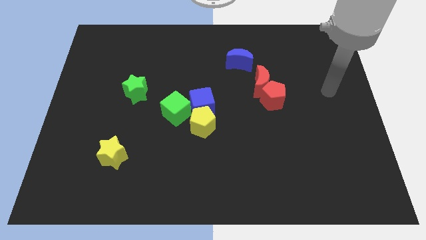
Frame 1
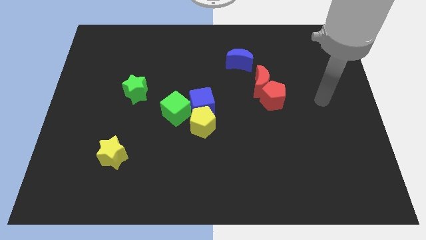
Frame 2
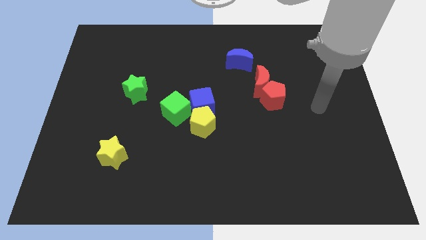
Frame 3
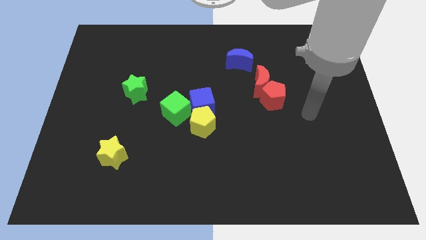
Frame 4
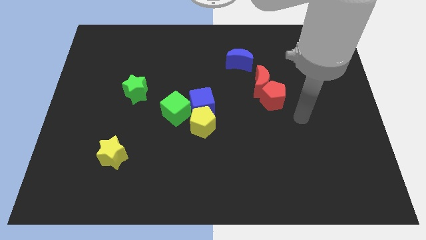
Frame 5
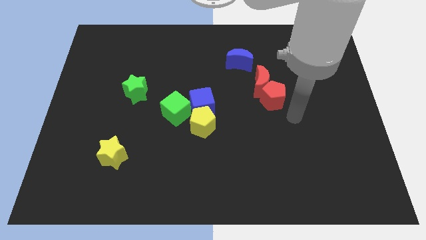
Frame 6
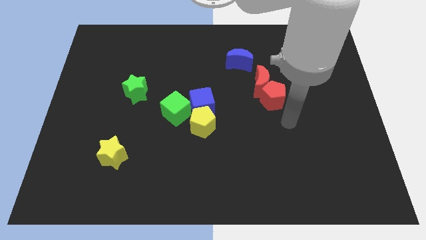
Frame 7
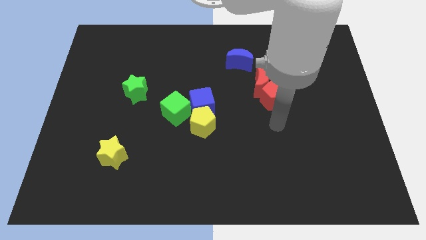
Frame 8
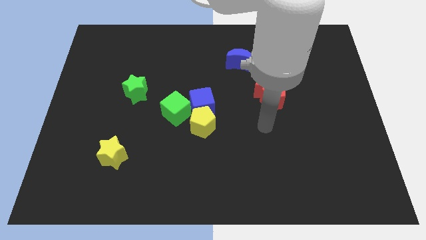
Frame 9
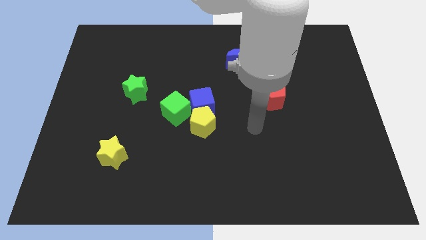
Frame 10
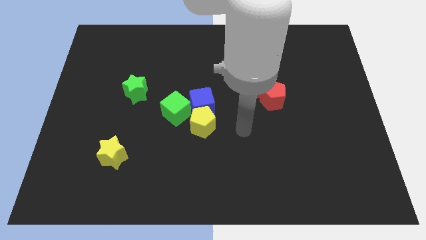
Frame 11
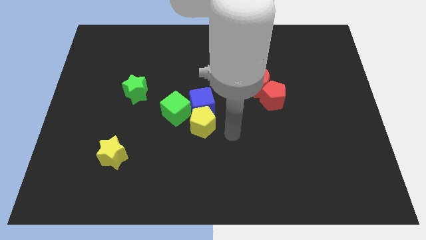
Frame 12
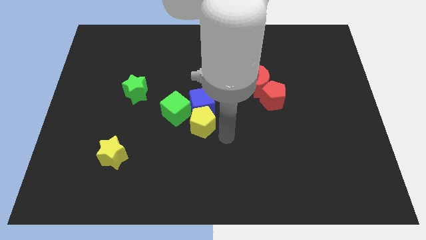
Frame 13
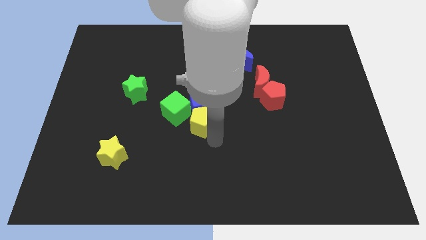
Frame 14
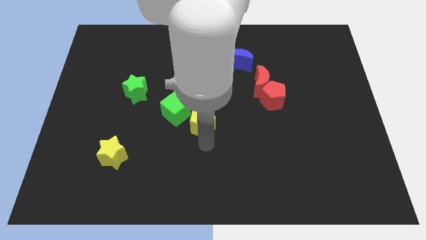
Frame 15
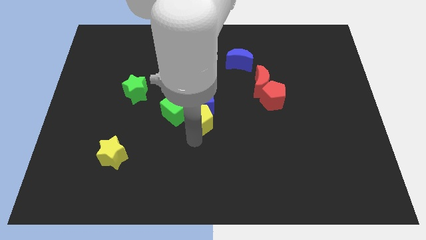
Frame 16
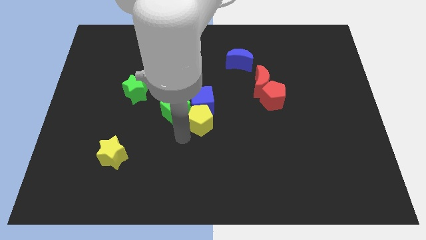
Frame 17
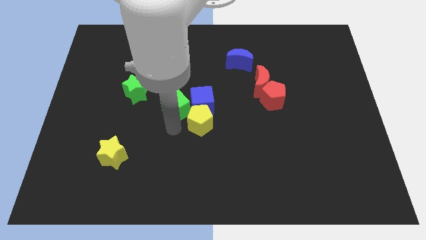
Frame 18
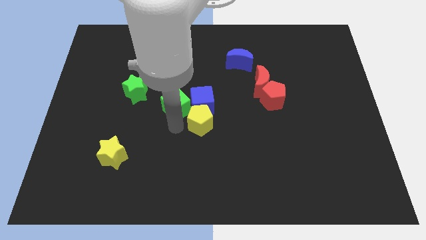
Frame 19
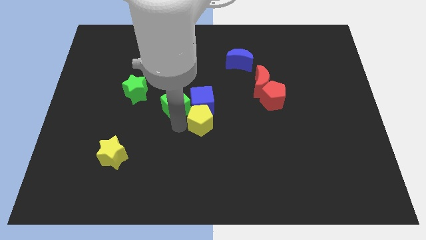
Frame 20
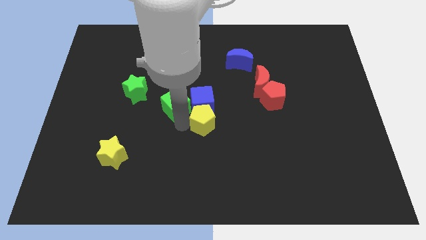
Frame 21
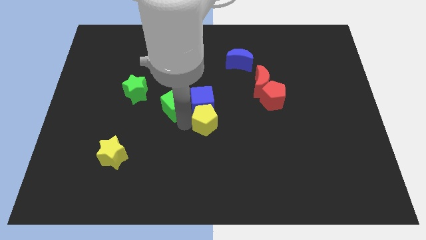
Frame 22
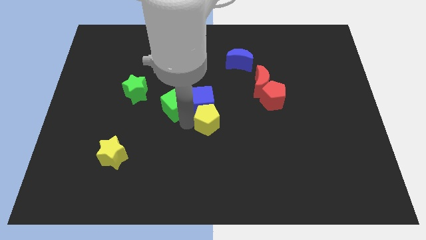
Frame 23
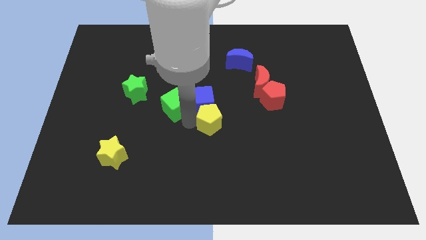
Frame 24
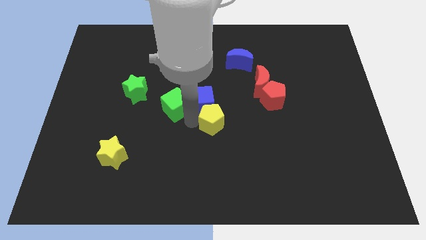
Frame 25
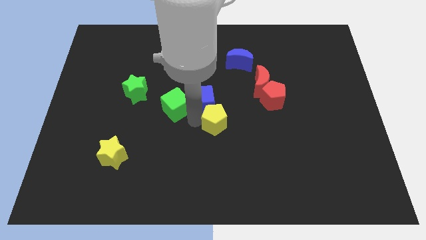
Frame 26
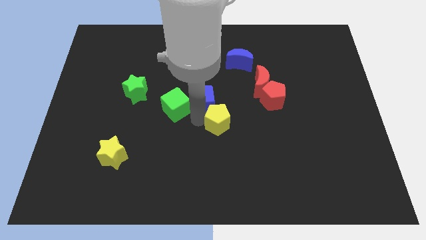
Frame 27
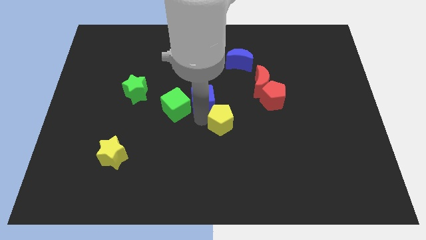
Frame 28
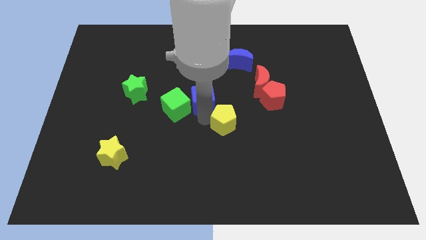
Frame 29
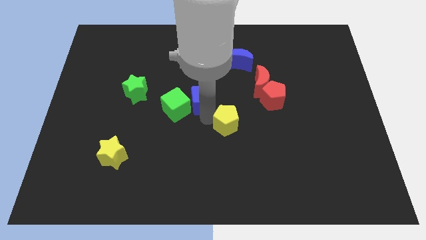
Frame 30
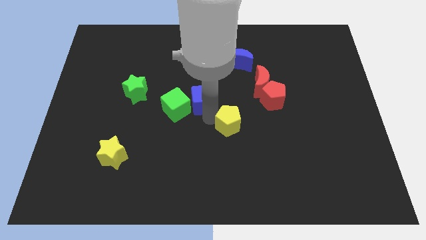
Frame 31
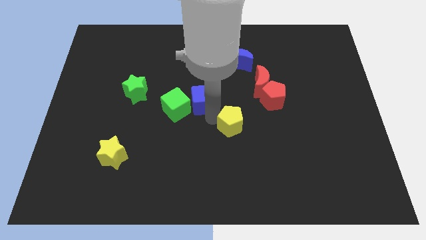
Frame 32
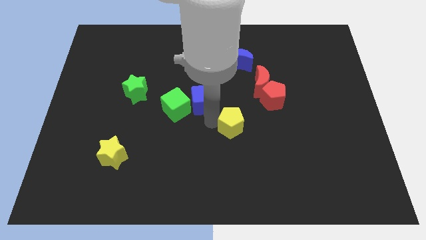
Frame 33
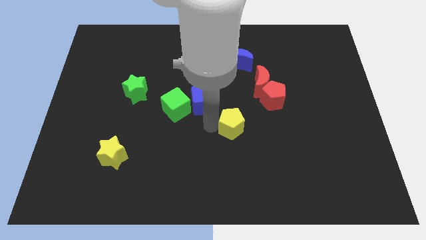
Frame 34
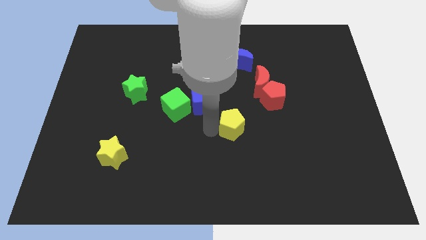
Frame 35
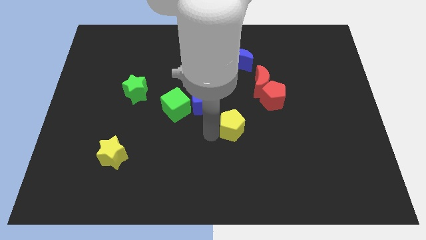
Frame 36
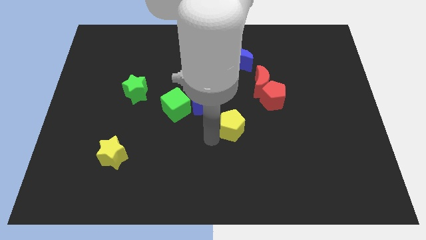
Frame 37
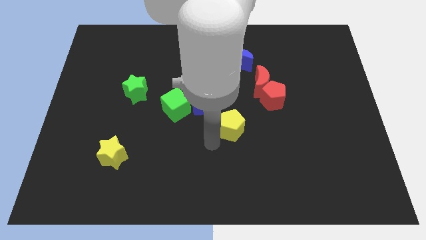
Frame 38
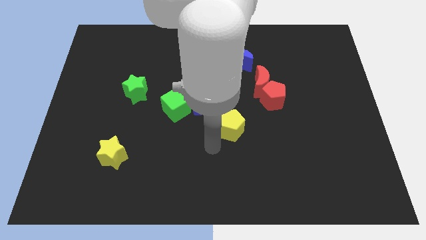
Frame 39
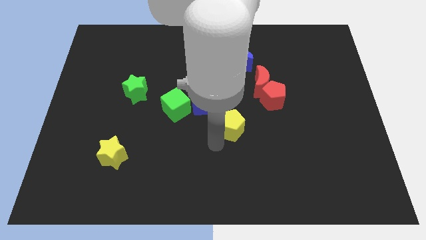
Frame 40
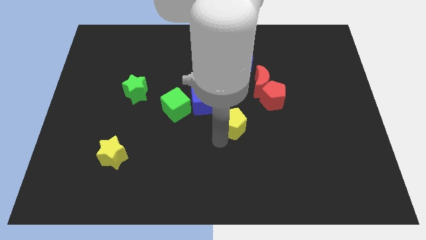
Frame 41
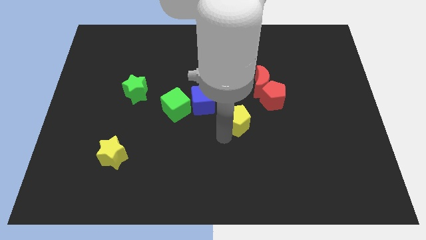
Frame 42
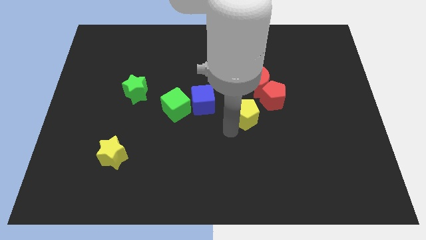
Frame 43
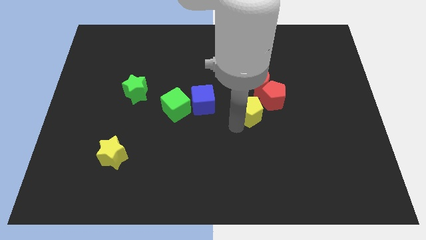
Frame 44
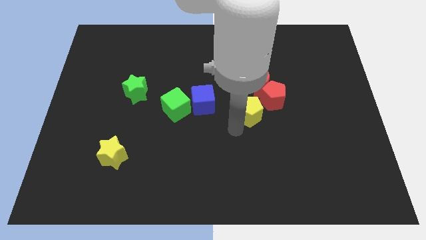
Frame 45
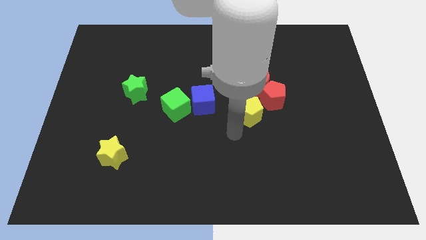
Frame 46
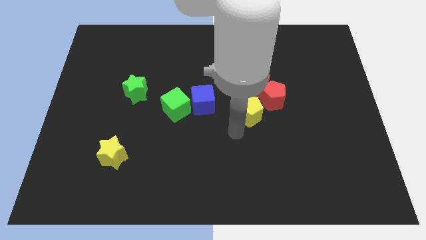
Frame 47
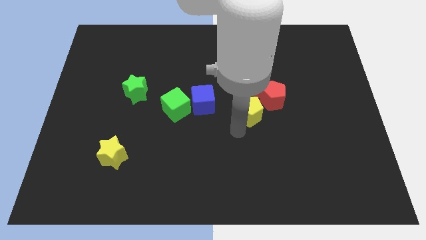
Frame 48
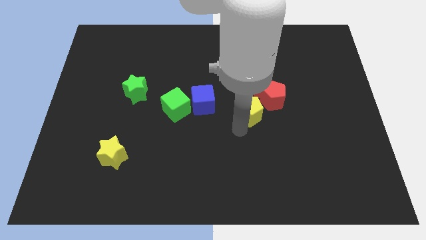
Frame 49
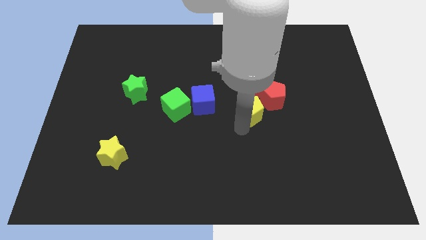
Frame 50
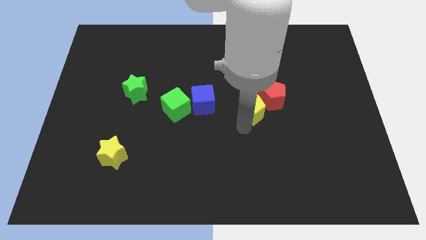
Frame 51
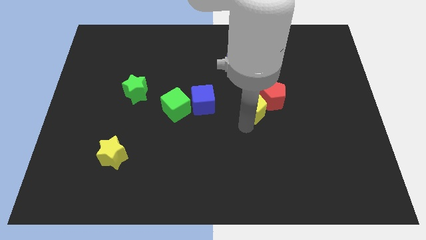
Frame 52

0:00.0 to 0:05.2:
slide the yellow pentagon to the red pentagon

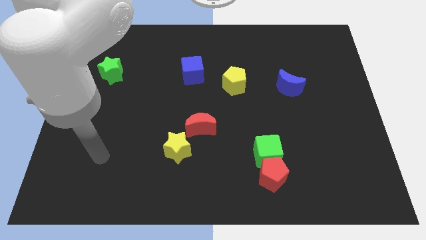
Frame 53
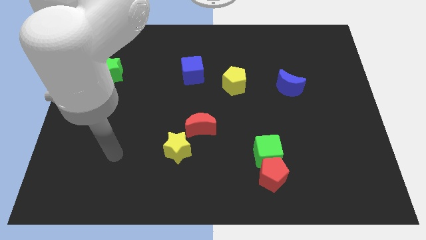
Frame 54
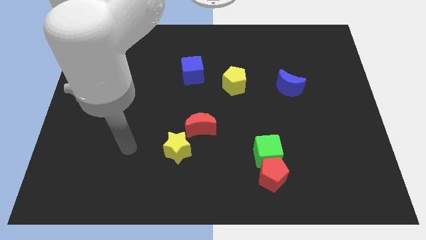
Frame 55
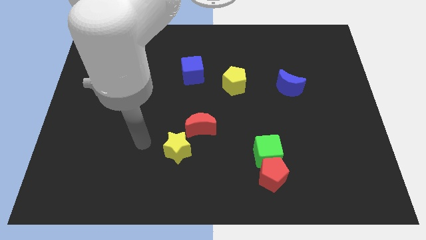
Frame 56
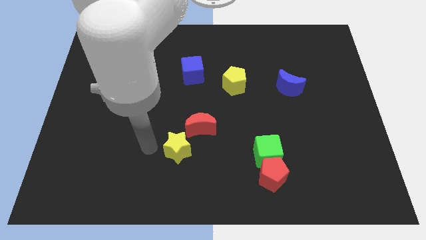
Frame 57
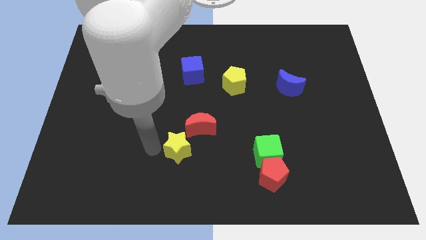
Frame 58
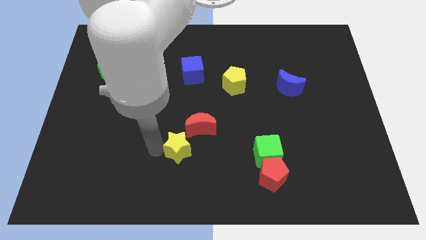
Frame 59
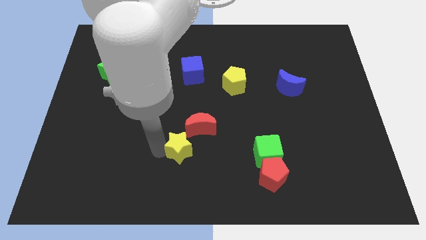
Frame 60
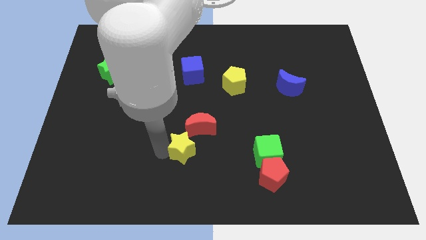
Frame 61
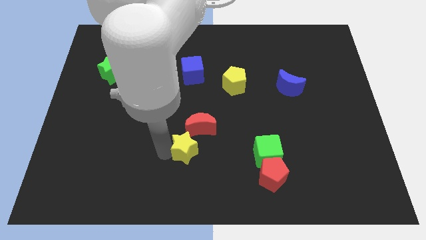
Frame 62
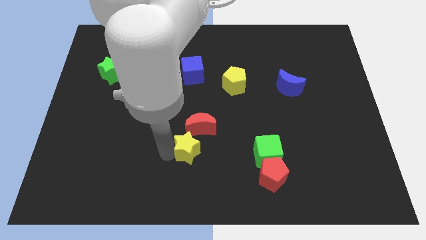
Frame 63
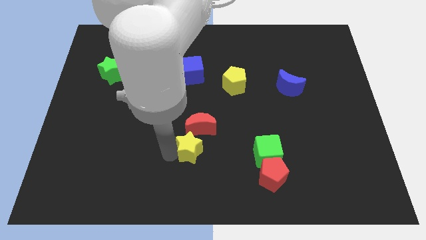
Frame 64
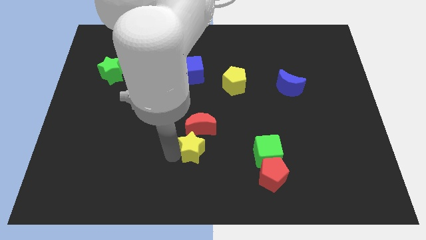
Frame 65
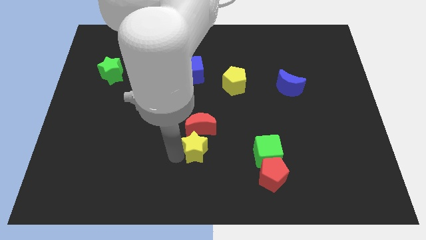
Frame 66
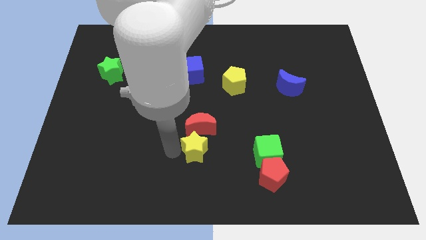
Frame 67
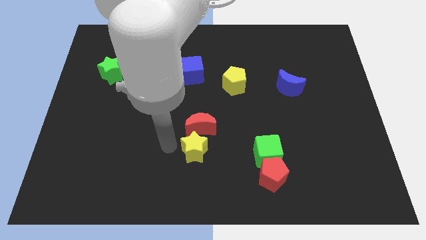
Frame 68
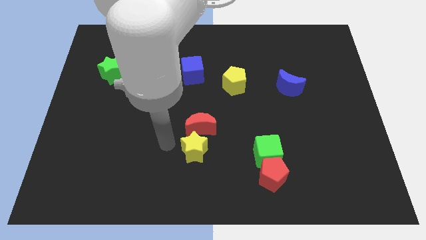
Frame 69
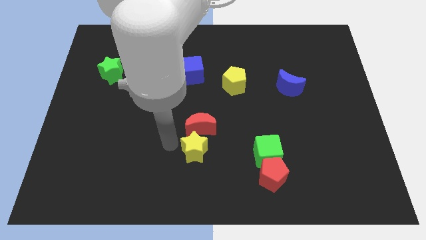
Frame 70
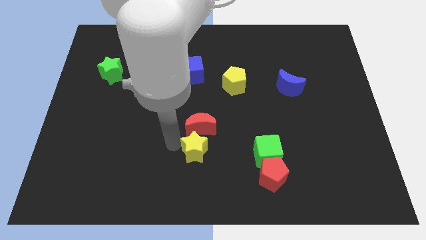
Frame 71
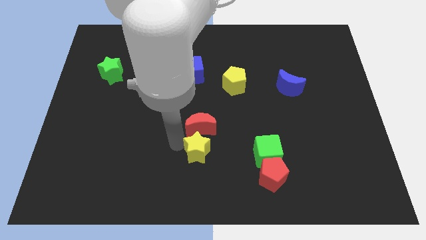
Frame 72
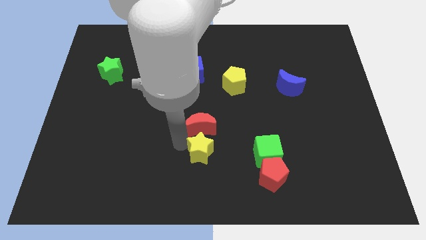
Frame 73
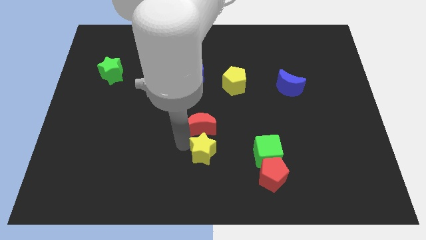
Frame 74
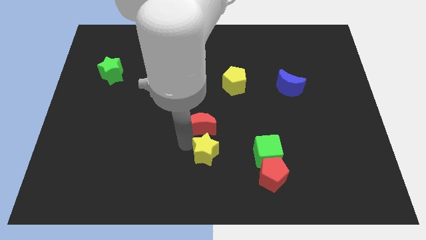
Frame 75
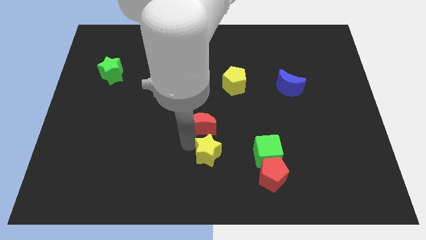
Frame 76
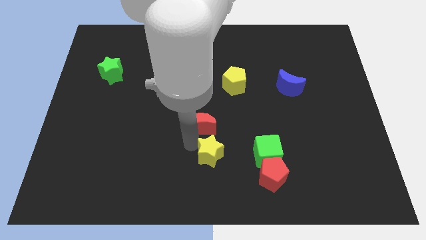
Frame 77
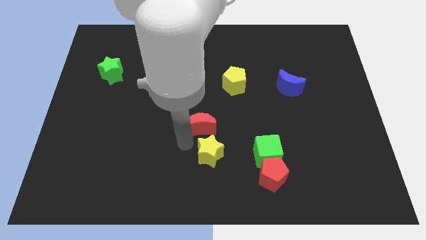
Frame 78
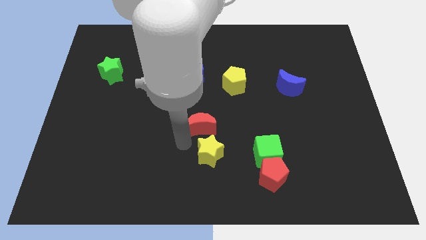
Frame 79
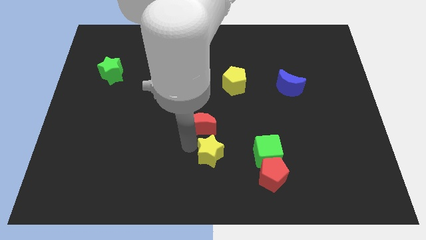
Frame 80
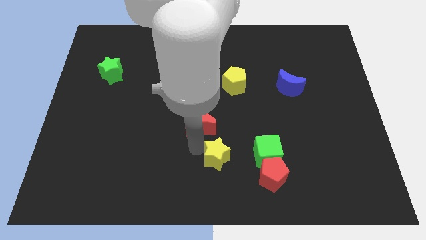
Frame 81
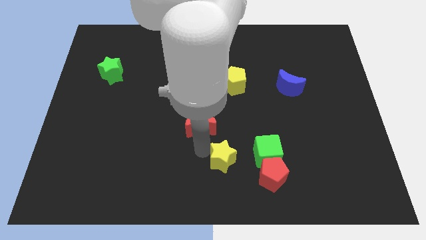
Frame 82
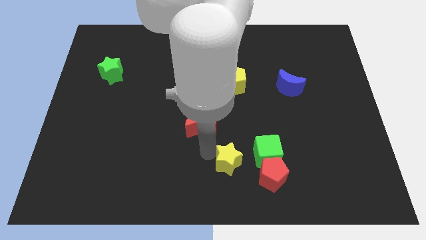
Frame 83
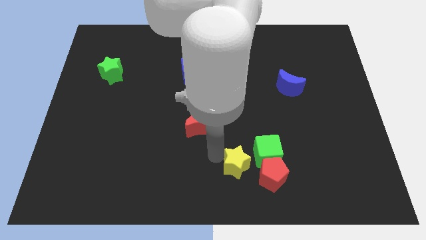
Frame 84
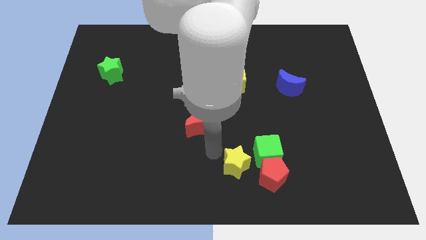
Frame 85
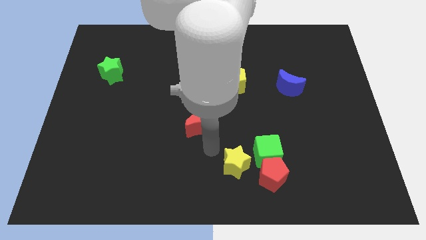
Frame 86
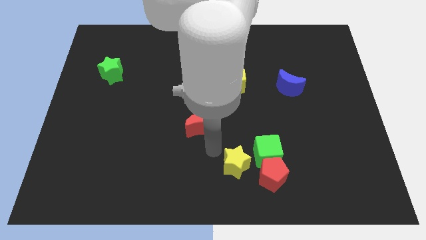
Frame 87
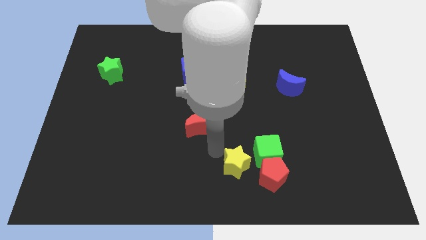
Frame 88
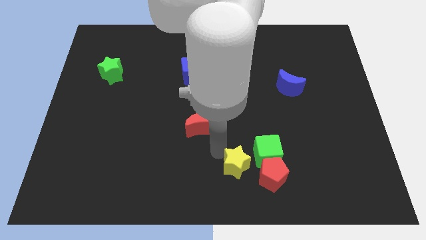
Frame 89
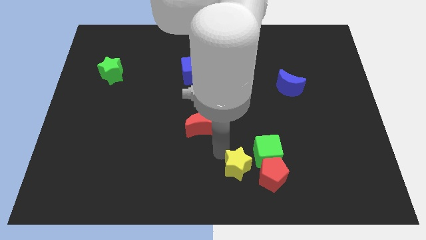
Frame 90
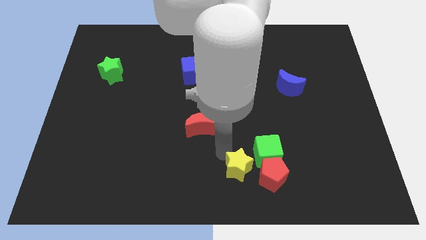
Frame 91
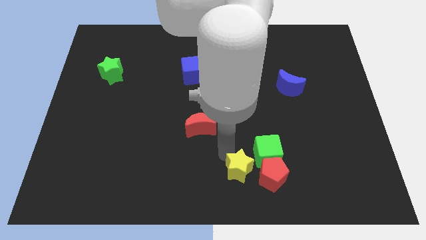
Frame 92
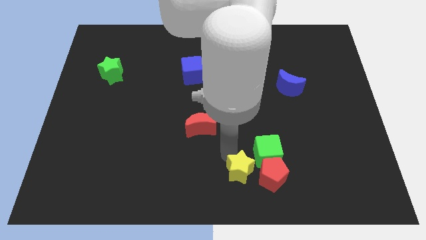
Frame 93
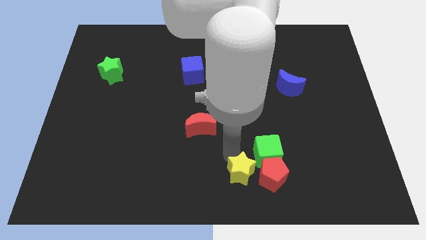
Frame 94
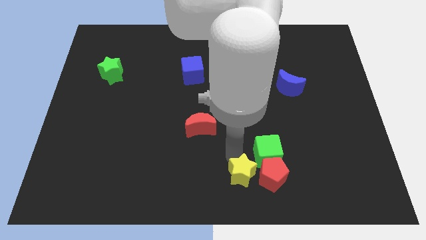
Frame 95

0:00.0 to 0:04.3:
move the yellow star next to the red pentagon
